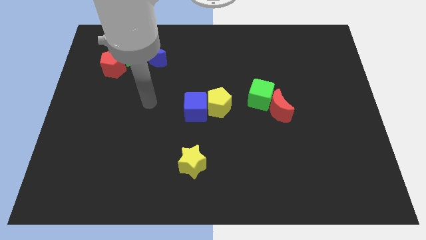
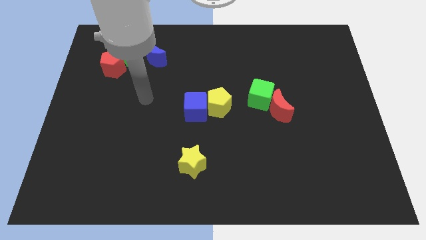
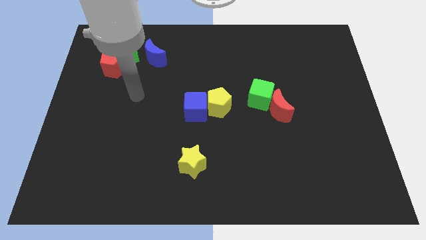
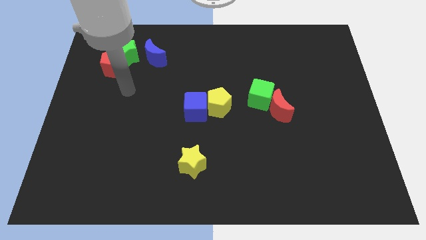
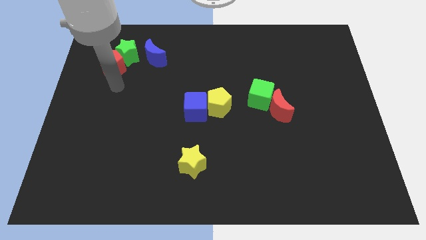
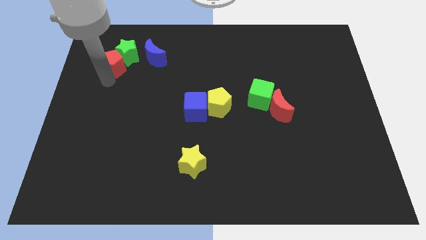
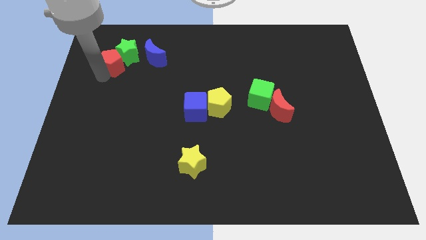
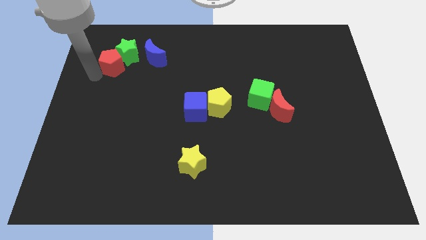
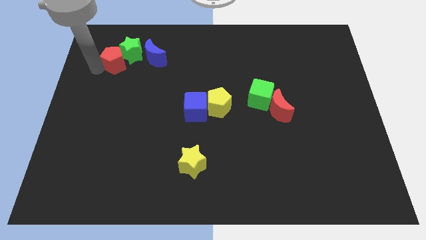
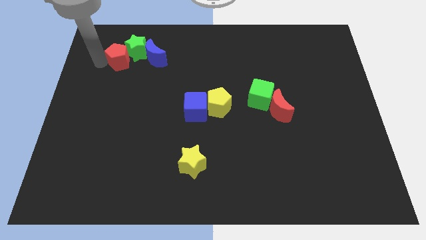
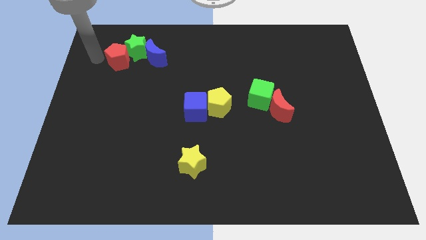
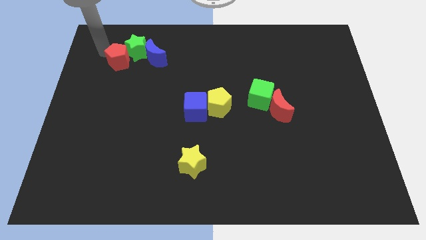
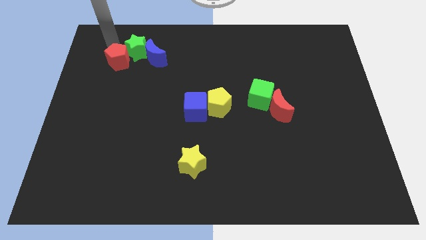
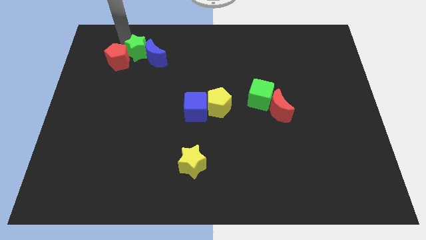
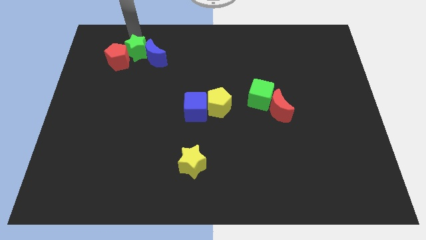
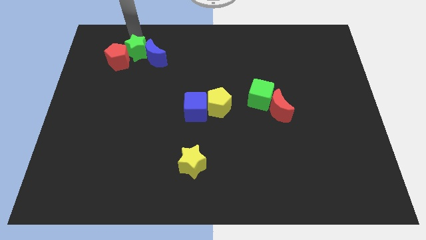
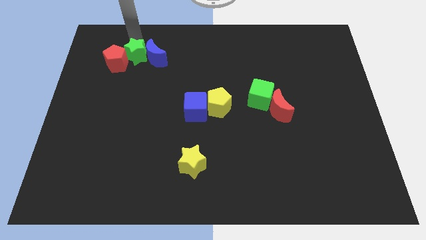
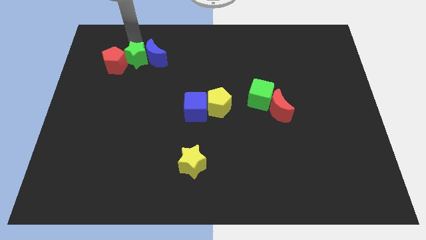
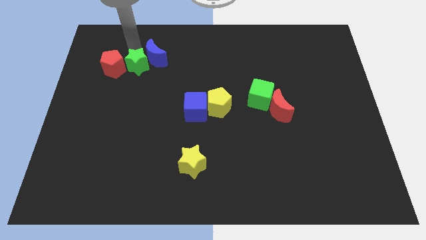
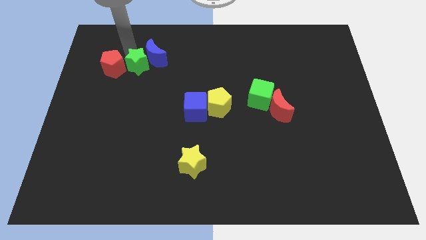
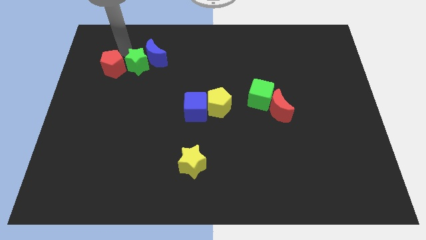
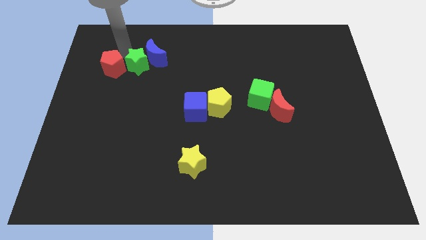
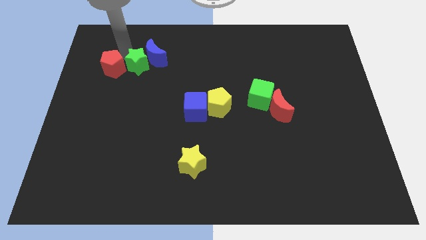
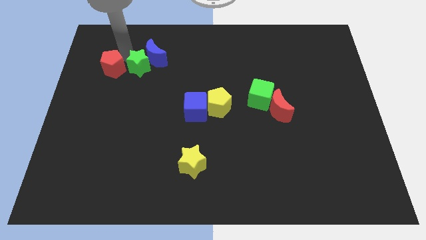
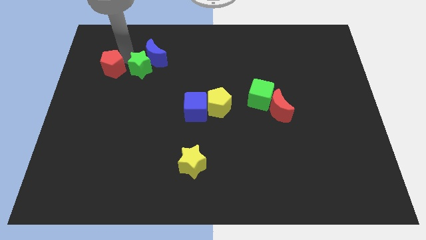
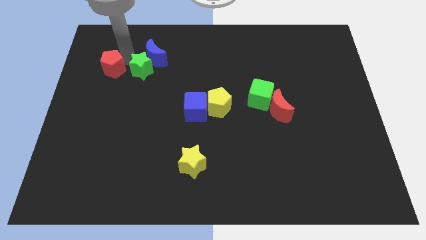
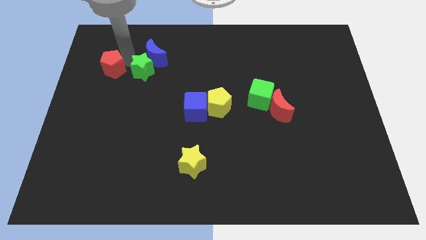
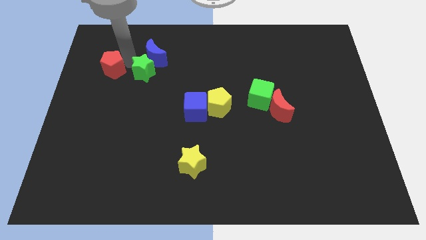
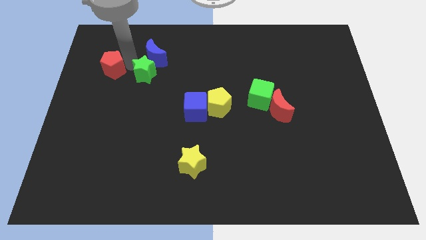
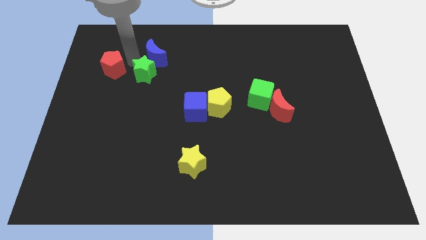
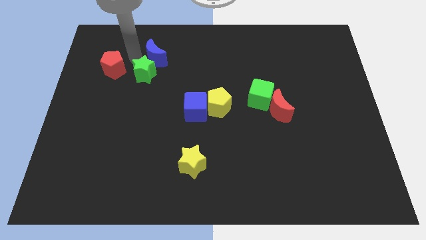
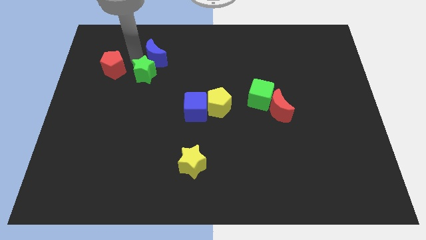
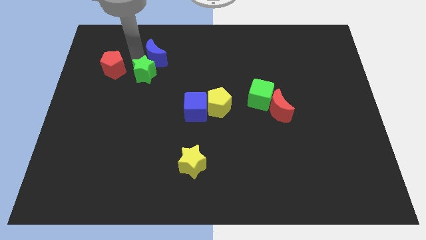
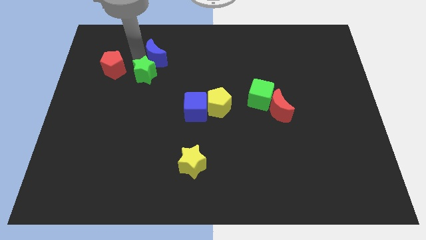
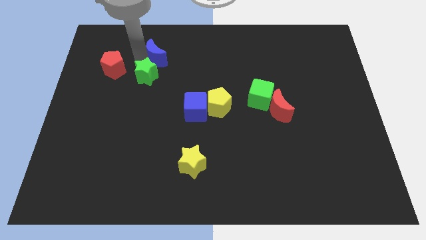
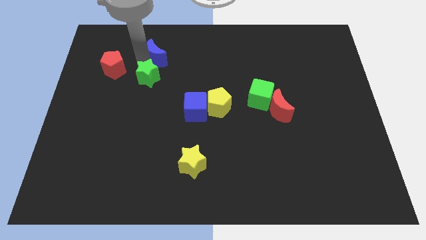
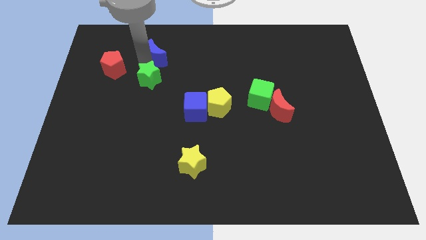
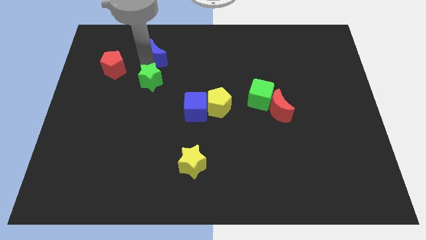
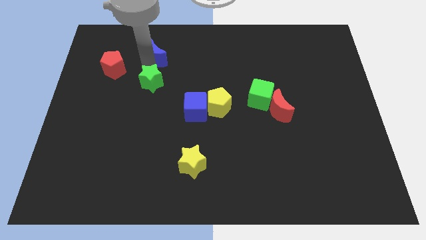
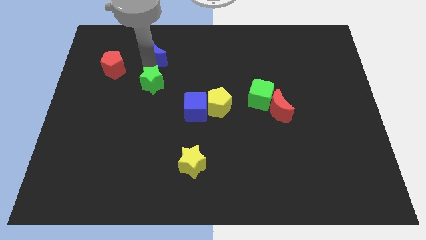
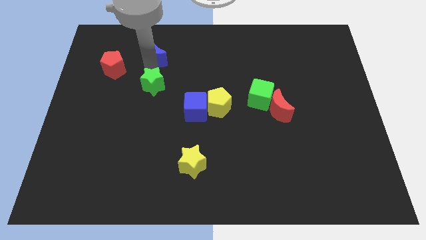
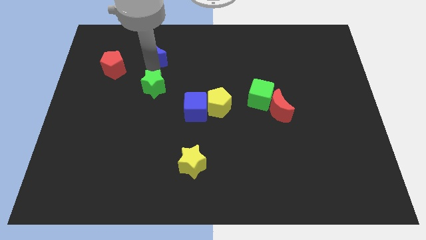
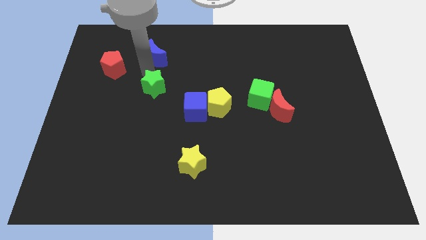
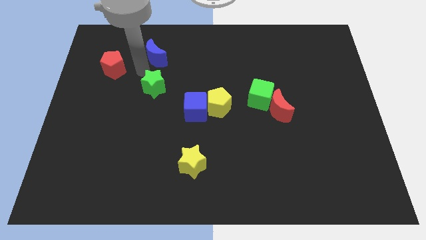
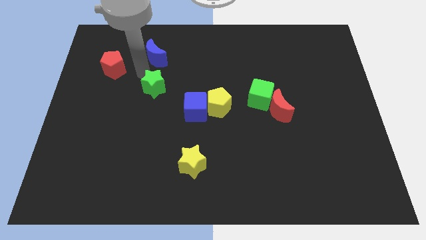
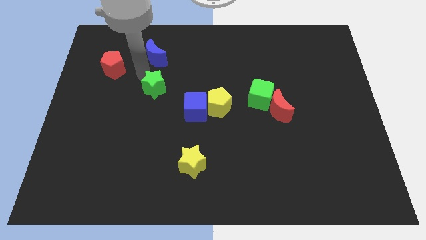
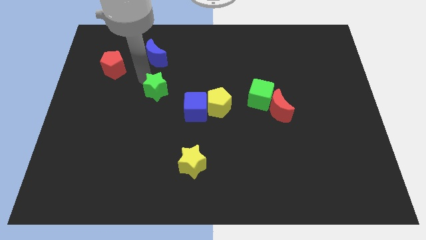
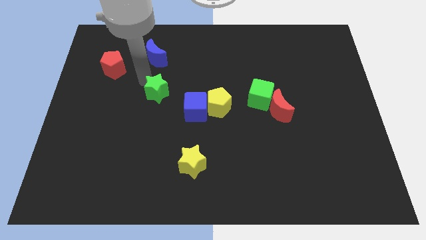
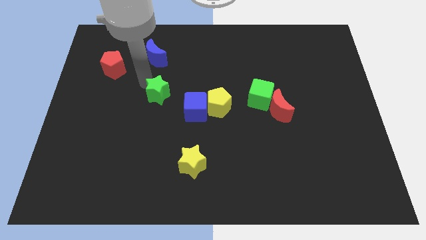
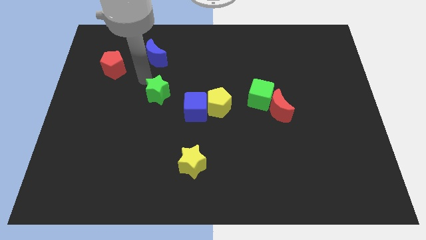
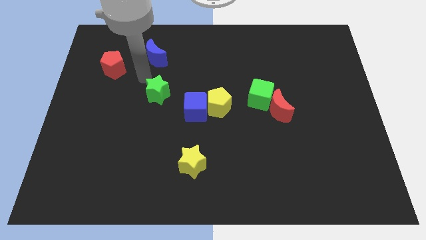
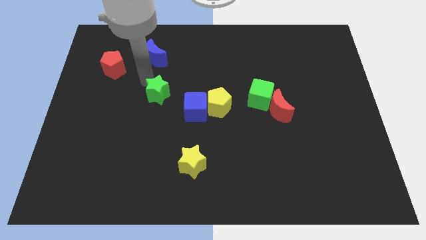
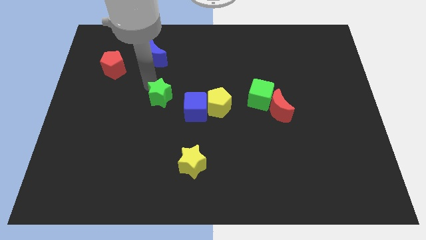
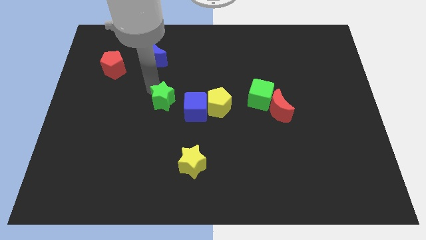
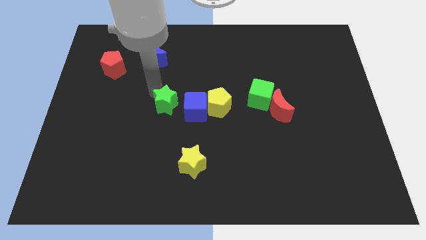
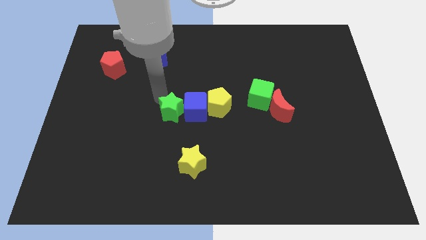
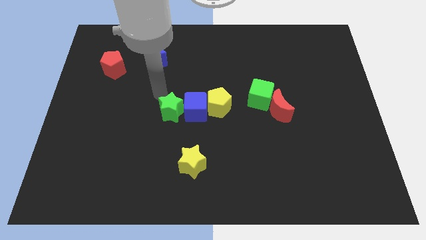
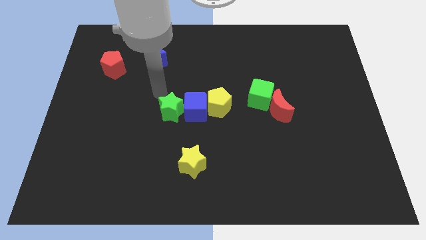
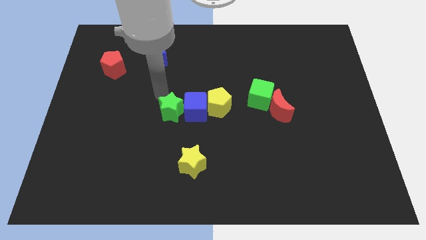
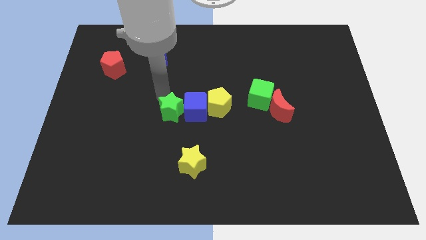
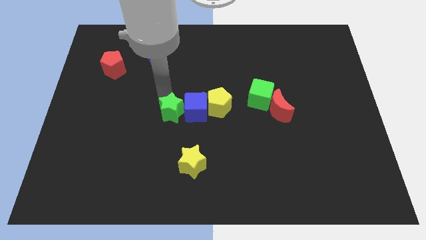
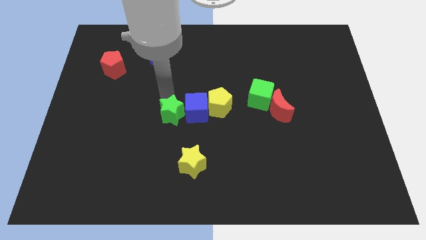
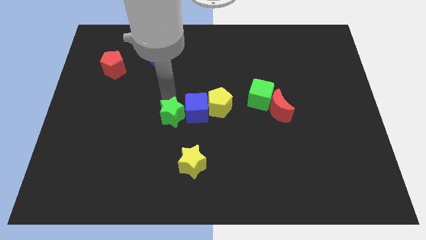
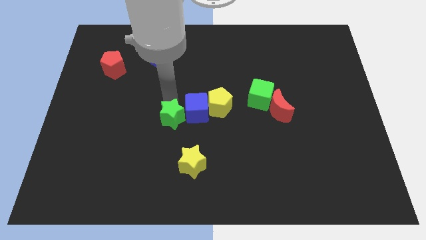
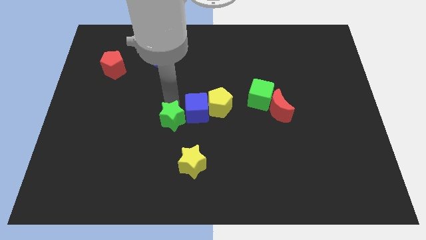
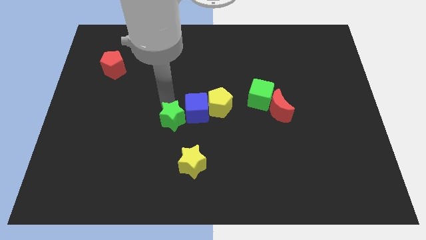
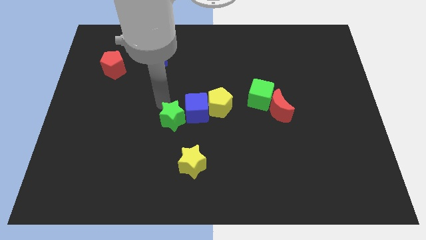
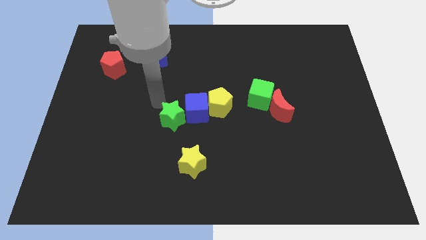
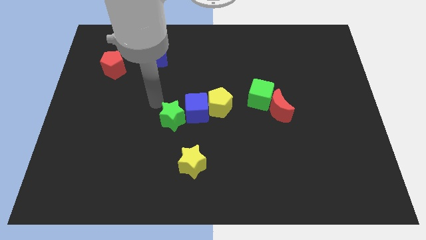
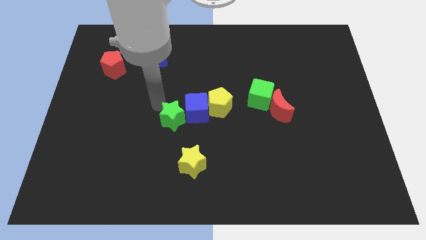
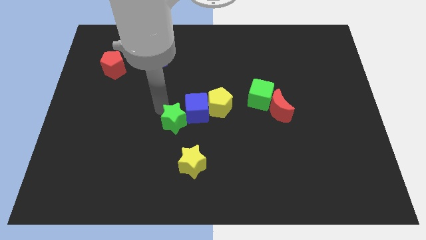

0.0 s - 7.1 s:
put the green star diagonally down and to the left of the yellow pentagon
